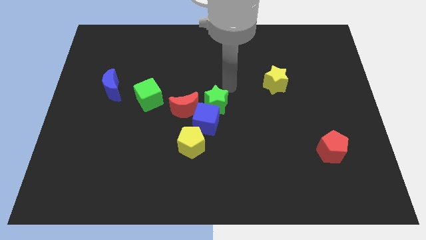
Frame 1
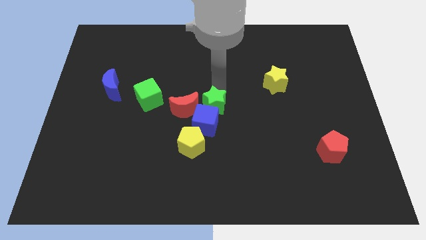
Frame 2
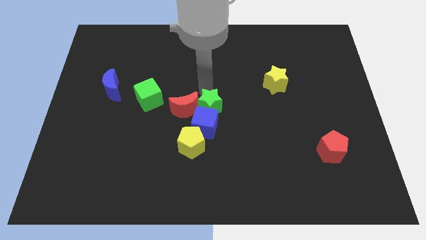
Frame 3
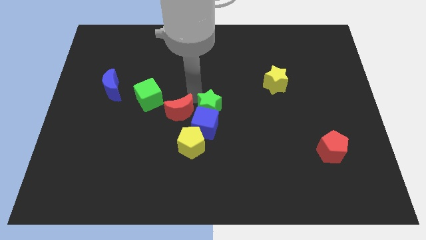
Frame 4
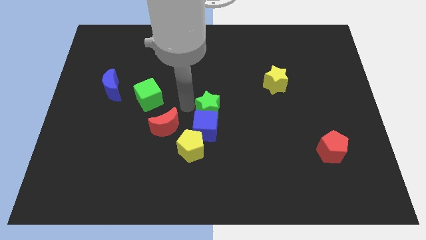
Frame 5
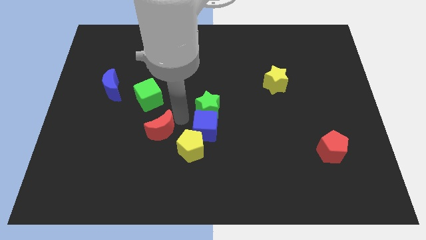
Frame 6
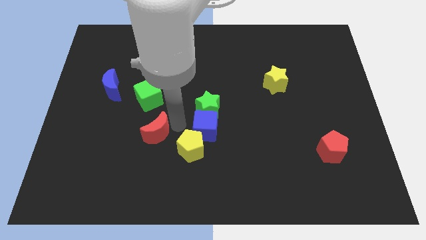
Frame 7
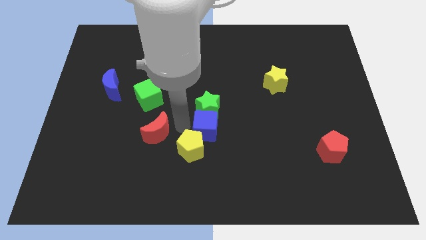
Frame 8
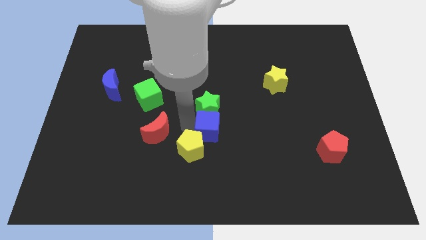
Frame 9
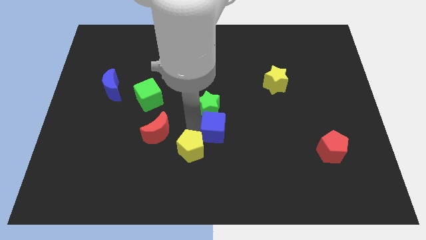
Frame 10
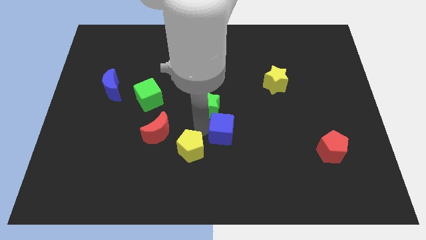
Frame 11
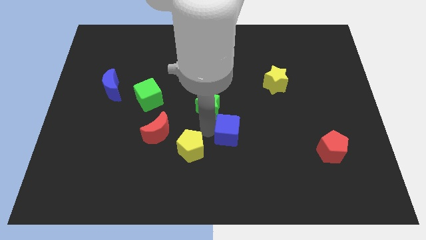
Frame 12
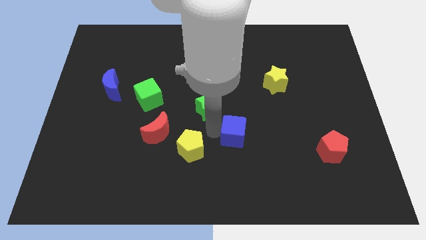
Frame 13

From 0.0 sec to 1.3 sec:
move the blue cube away from the clump

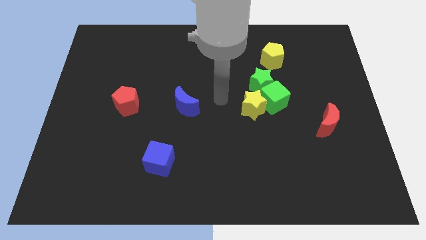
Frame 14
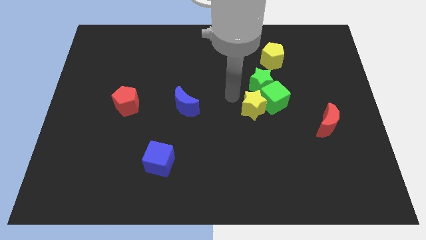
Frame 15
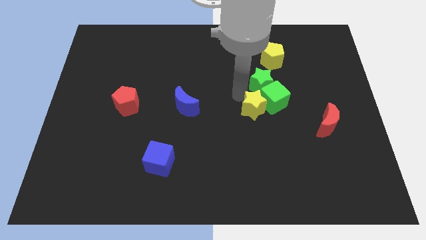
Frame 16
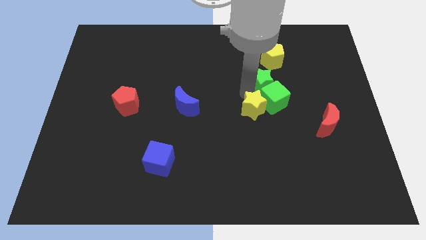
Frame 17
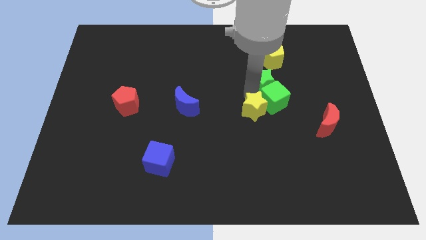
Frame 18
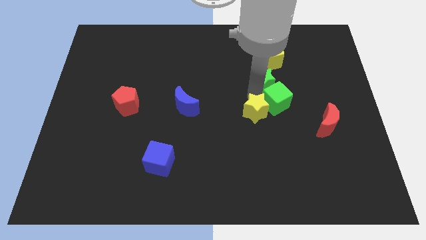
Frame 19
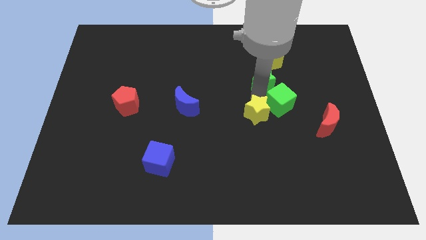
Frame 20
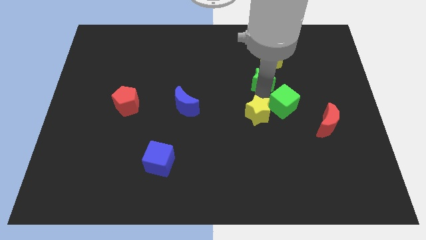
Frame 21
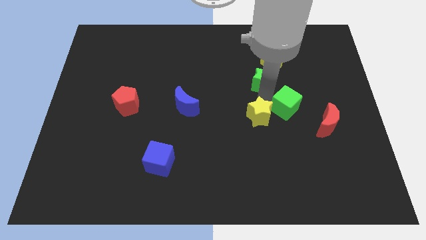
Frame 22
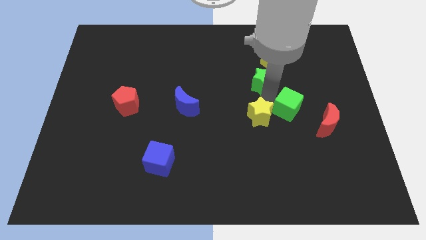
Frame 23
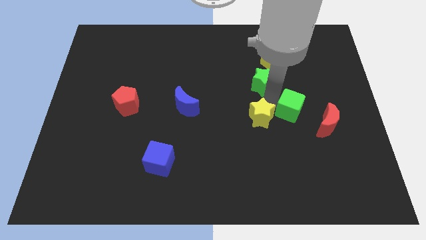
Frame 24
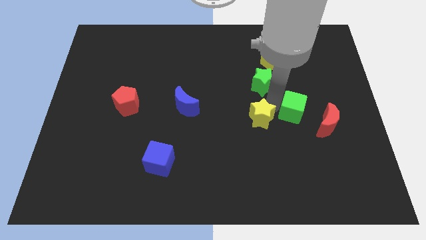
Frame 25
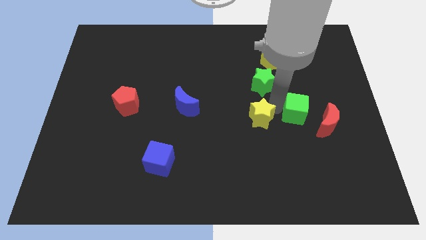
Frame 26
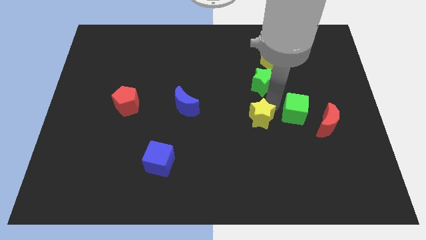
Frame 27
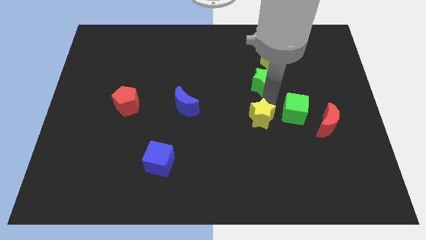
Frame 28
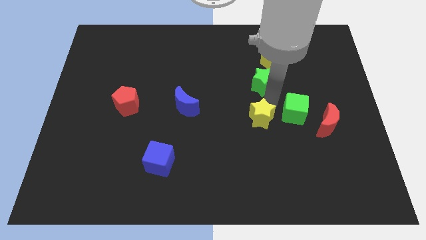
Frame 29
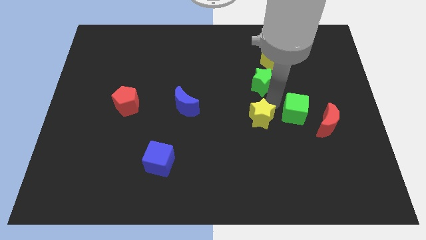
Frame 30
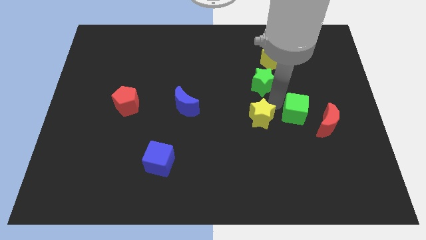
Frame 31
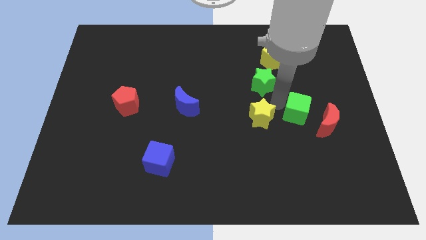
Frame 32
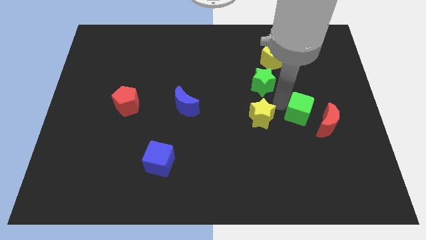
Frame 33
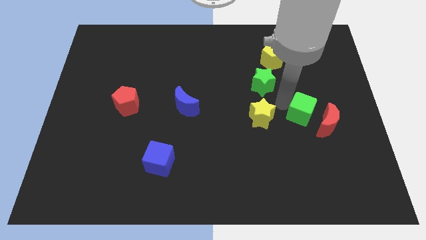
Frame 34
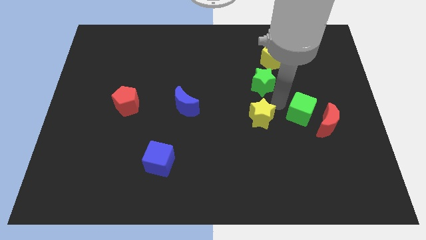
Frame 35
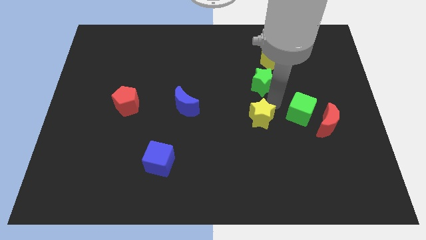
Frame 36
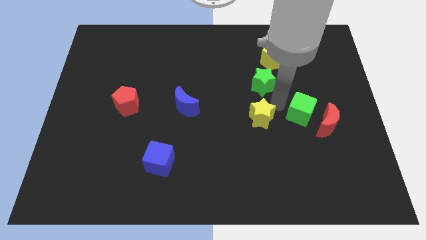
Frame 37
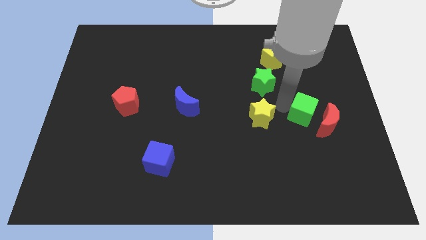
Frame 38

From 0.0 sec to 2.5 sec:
move the green cube away from the yellow star and green star

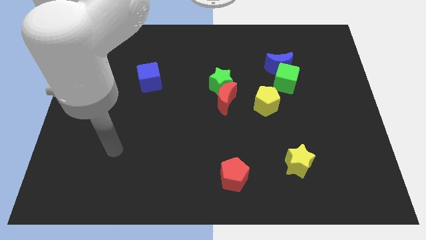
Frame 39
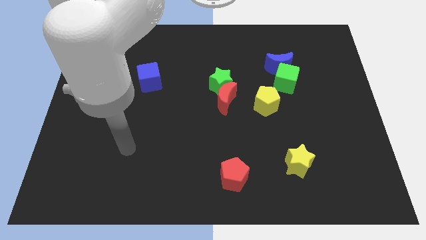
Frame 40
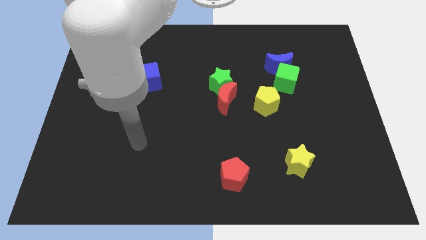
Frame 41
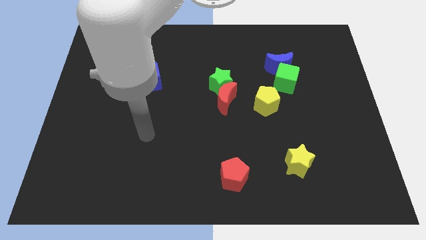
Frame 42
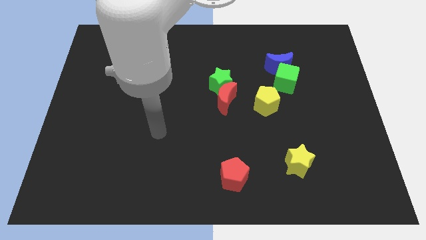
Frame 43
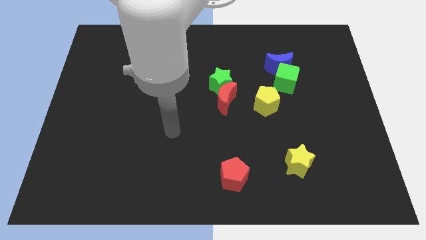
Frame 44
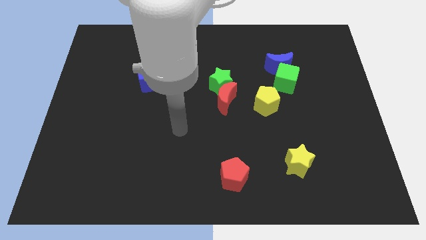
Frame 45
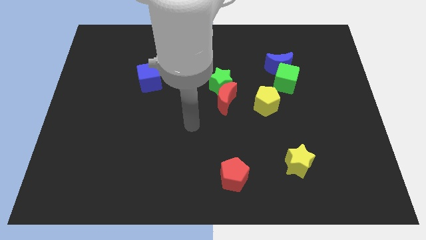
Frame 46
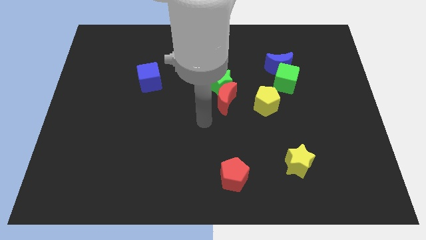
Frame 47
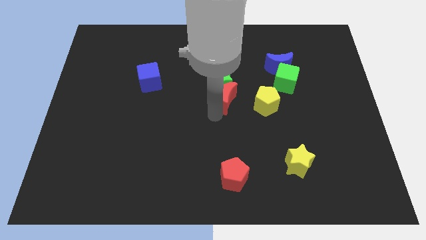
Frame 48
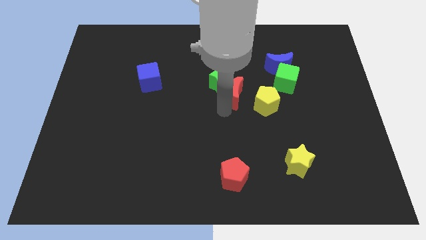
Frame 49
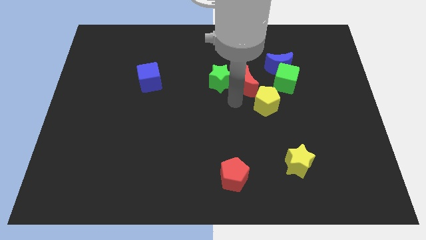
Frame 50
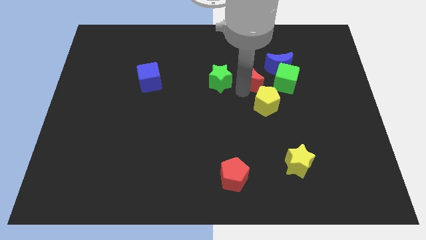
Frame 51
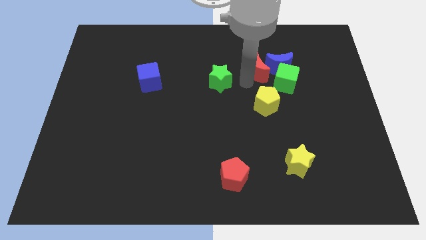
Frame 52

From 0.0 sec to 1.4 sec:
separate the green star from the red moon

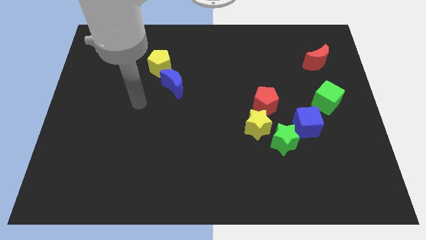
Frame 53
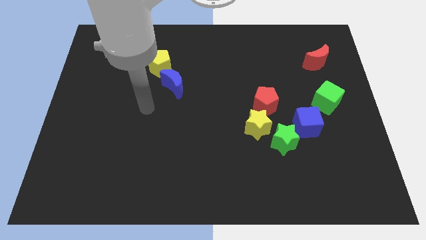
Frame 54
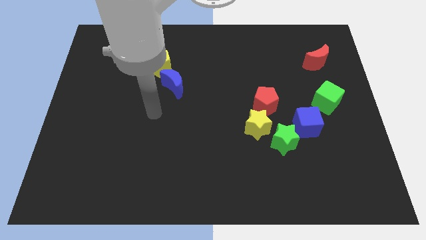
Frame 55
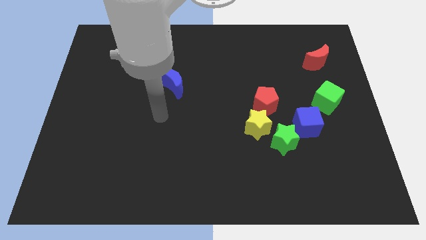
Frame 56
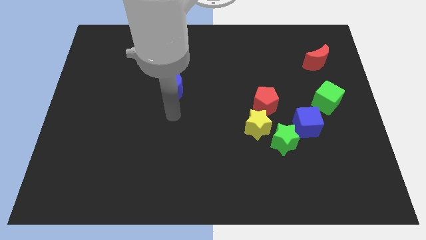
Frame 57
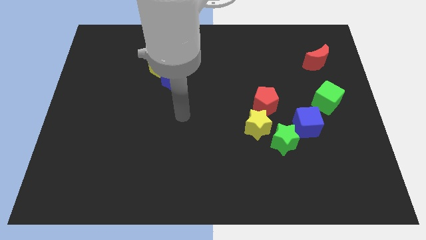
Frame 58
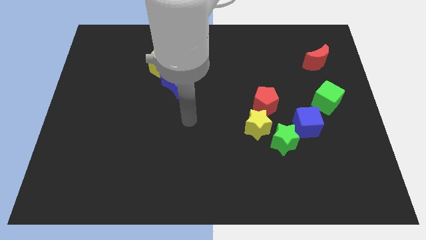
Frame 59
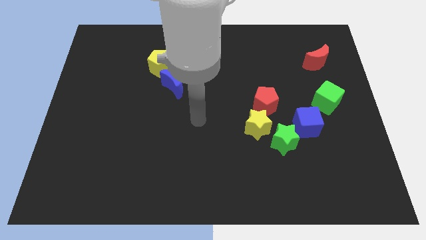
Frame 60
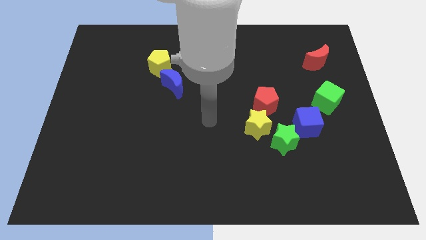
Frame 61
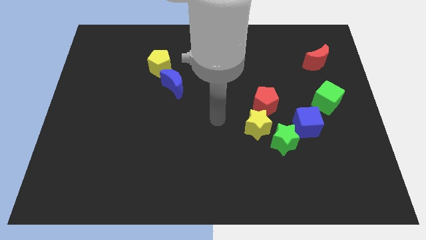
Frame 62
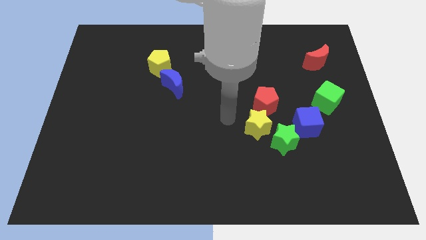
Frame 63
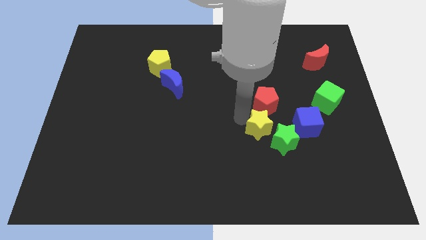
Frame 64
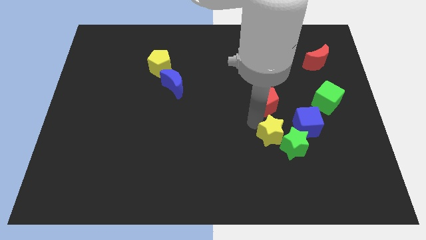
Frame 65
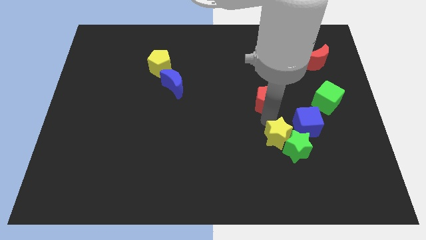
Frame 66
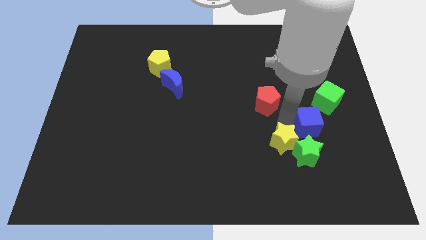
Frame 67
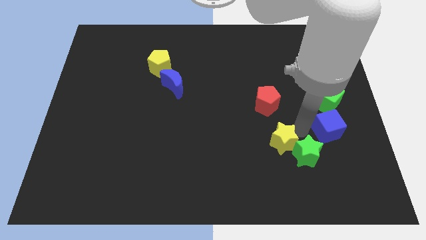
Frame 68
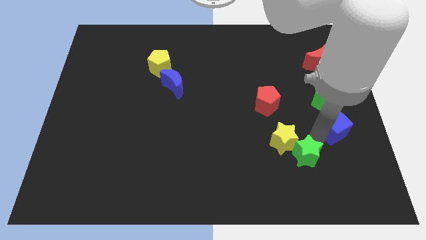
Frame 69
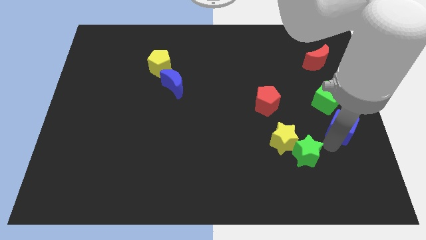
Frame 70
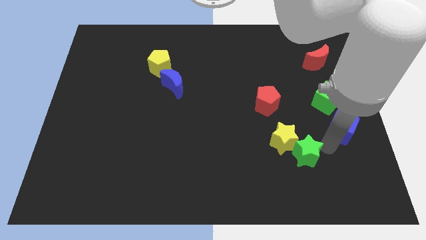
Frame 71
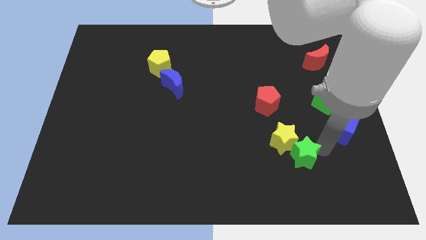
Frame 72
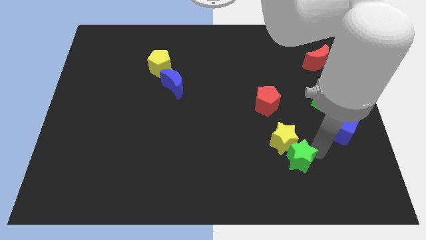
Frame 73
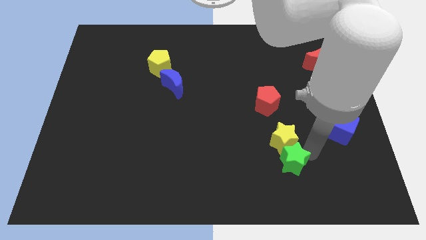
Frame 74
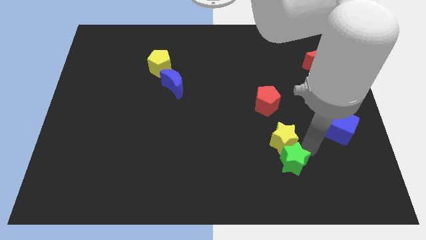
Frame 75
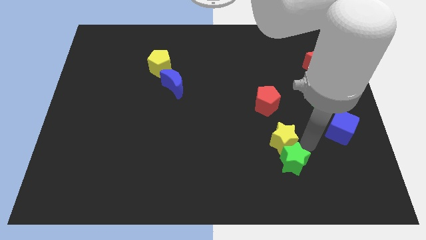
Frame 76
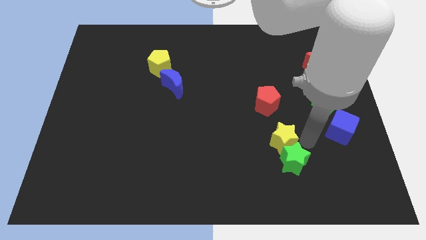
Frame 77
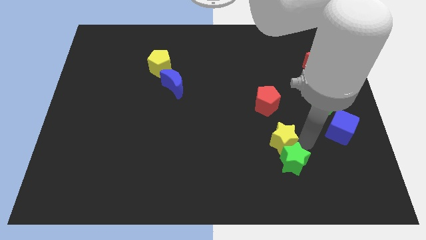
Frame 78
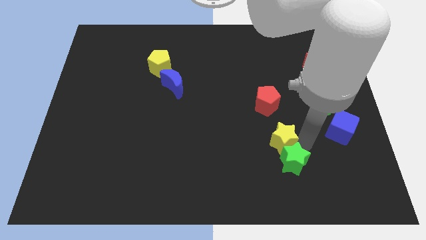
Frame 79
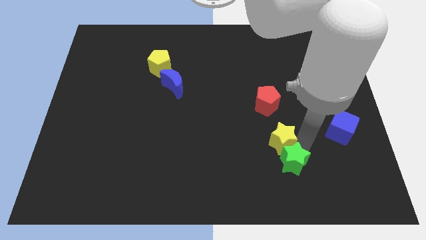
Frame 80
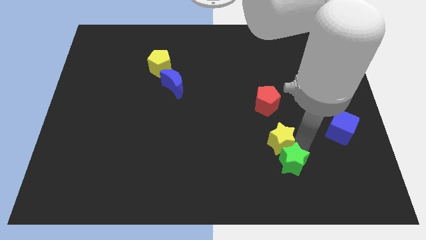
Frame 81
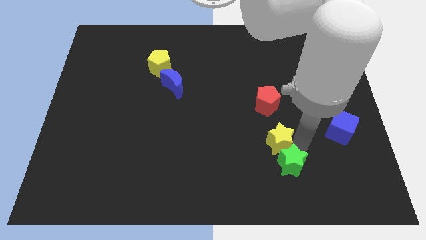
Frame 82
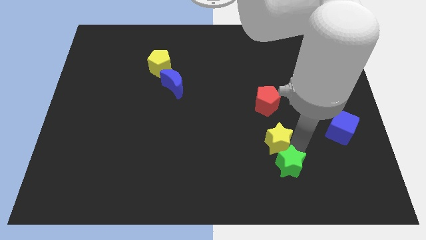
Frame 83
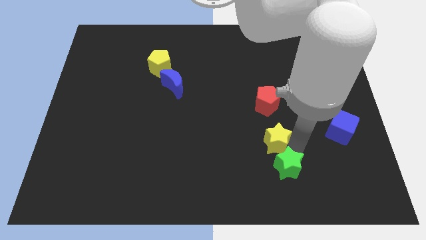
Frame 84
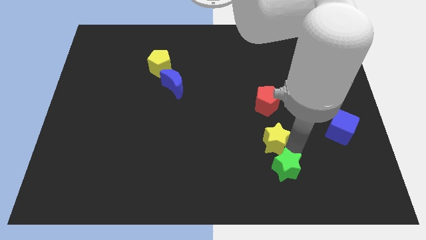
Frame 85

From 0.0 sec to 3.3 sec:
move the green star away from the yellow star and blue cube

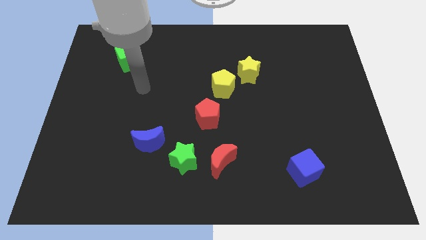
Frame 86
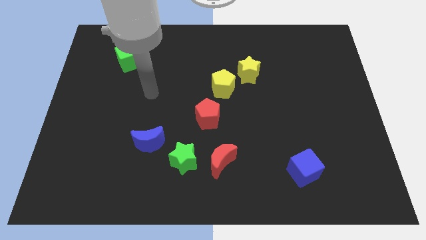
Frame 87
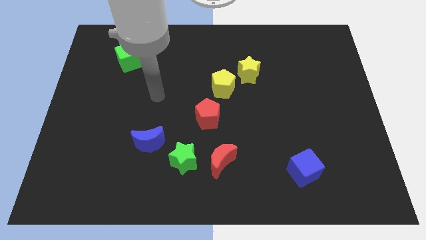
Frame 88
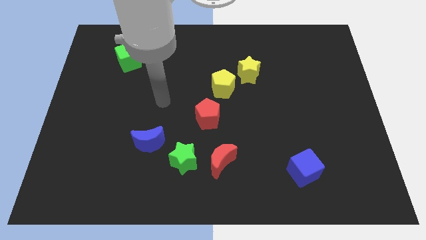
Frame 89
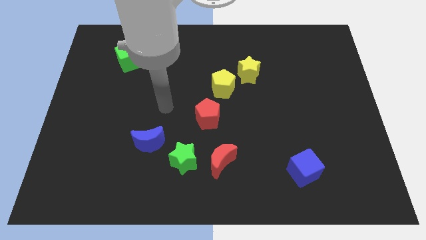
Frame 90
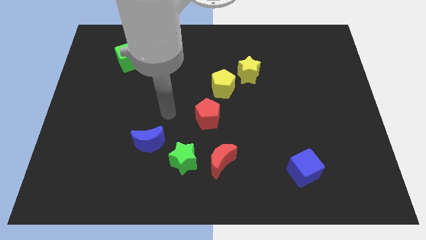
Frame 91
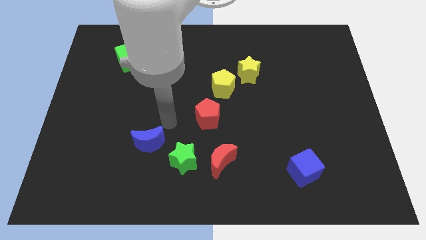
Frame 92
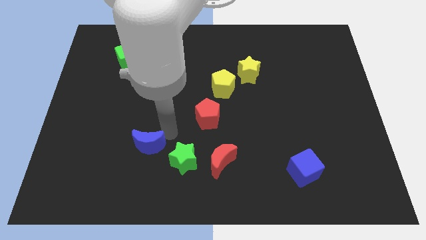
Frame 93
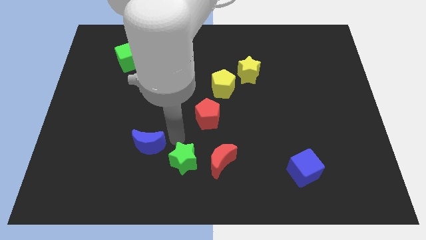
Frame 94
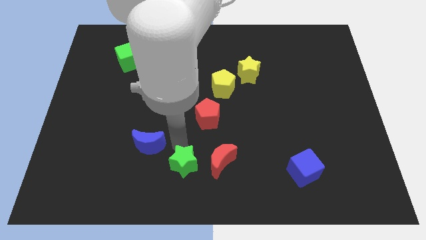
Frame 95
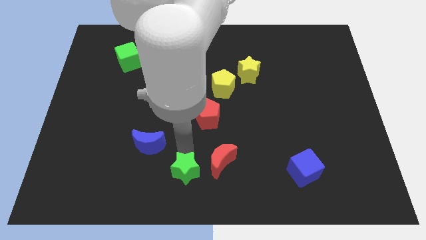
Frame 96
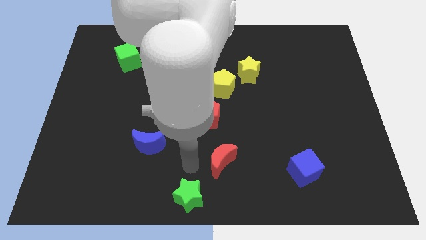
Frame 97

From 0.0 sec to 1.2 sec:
move the red moon away from the green star
